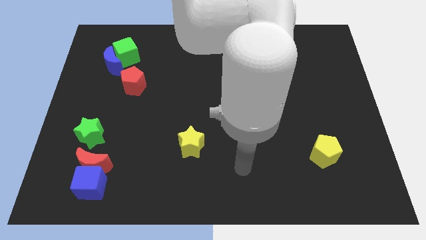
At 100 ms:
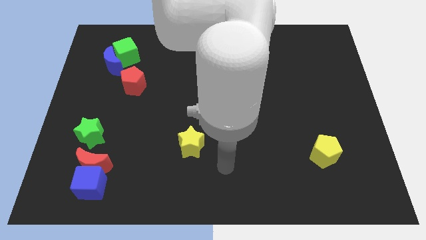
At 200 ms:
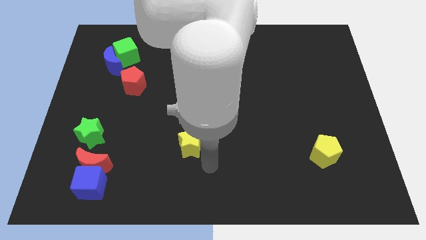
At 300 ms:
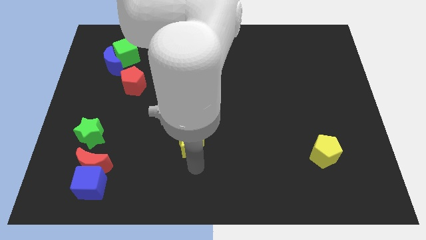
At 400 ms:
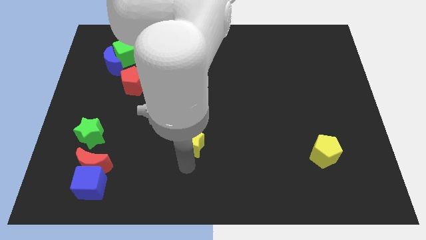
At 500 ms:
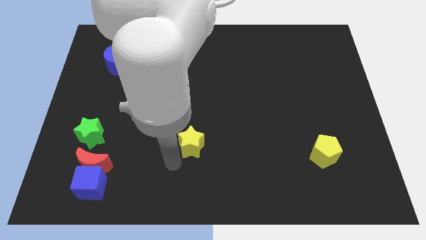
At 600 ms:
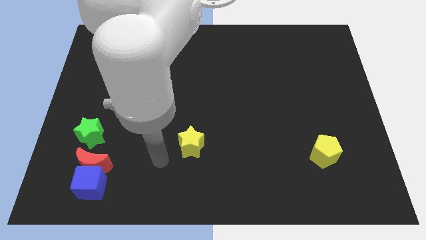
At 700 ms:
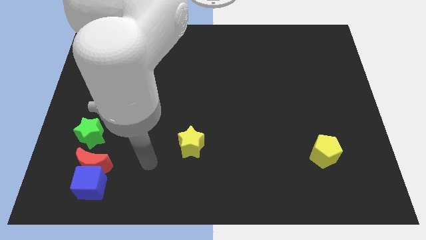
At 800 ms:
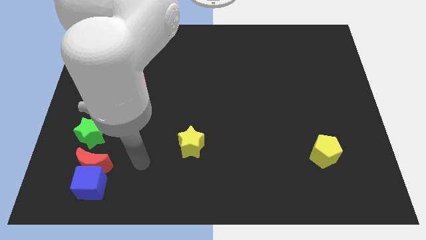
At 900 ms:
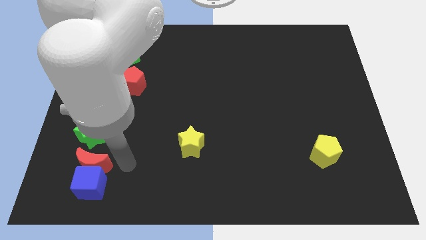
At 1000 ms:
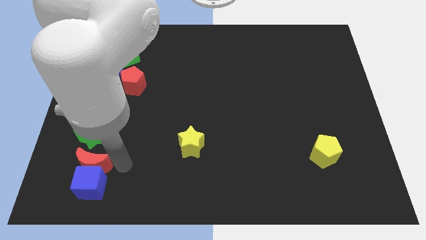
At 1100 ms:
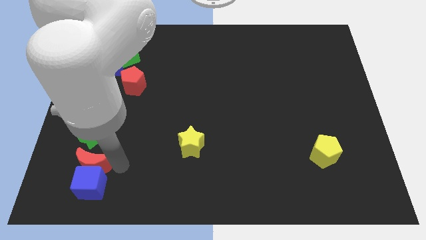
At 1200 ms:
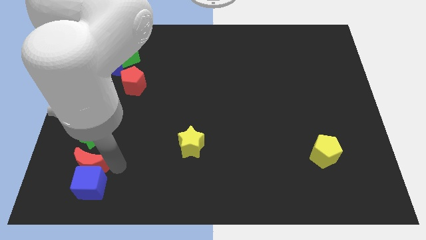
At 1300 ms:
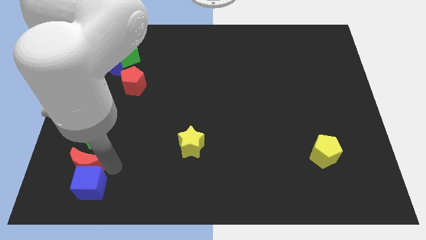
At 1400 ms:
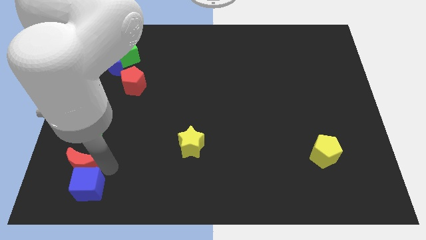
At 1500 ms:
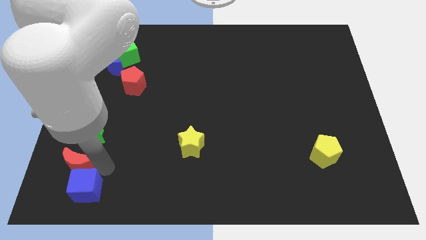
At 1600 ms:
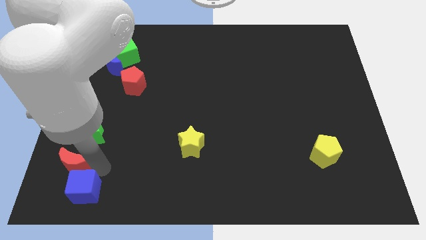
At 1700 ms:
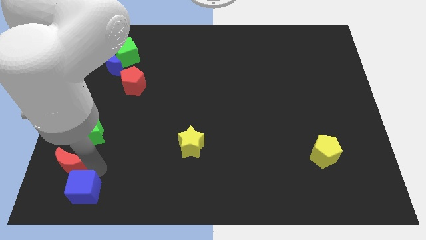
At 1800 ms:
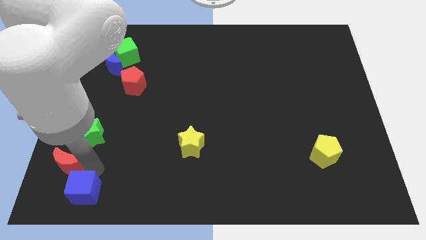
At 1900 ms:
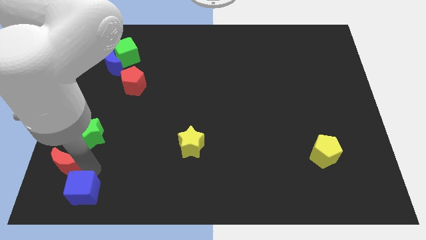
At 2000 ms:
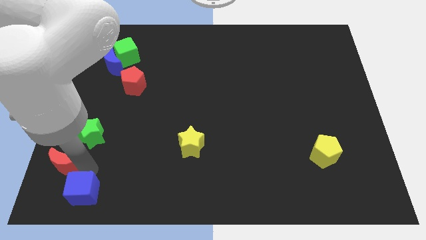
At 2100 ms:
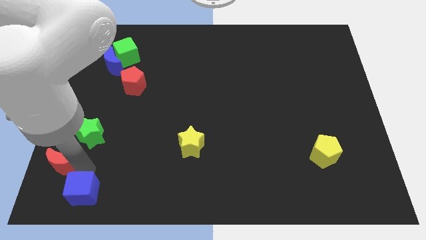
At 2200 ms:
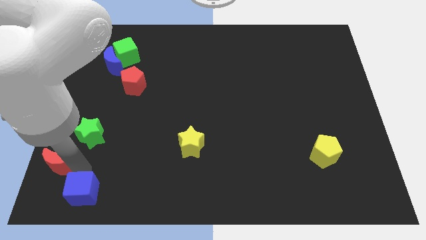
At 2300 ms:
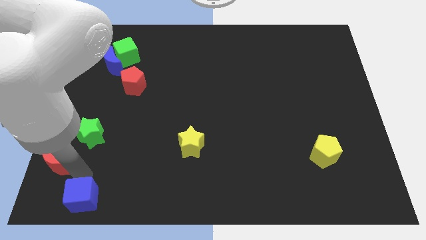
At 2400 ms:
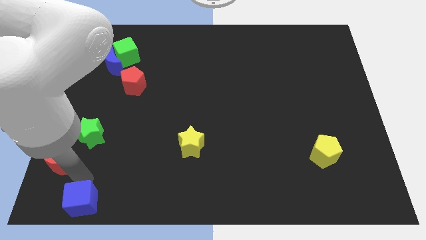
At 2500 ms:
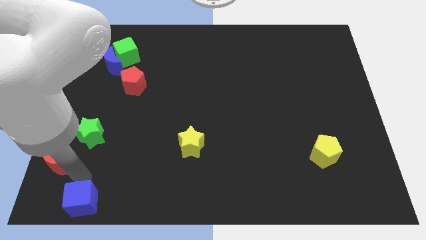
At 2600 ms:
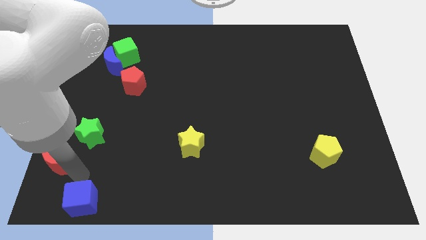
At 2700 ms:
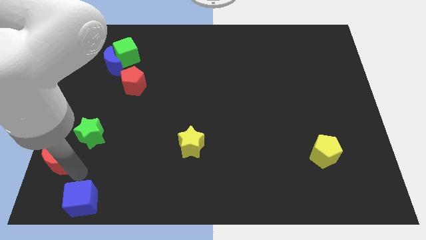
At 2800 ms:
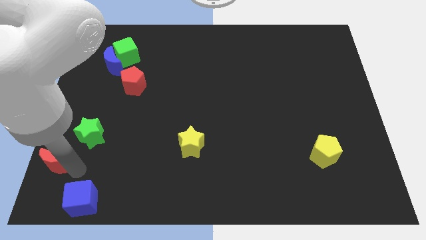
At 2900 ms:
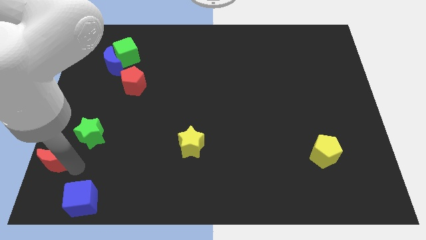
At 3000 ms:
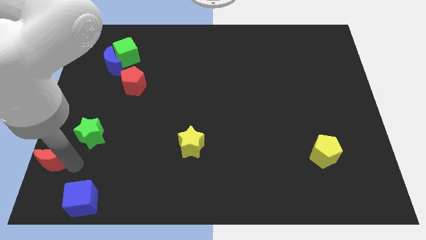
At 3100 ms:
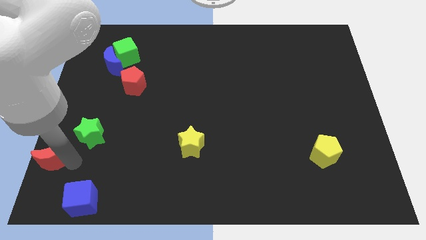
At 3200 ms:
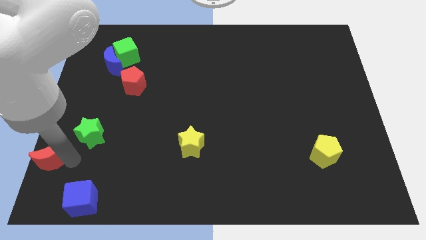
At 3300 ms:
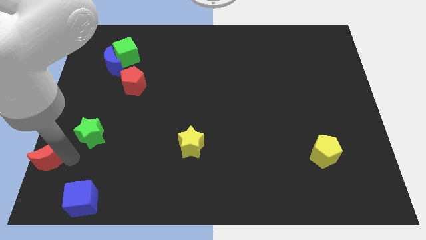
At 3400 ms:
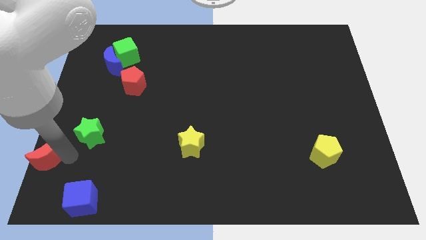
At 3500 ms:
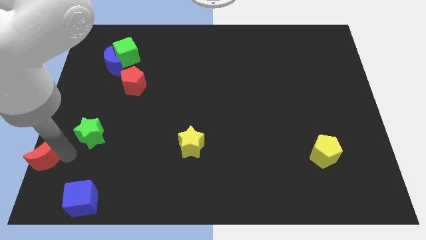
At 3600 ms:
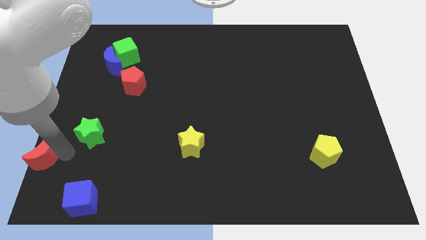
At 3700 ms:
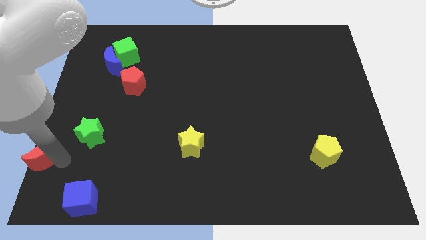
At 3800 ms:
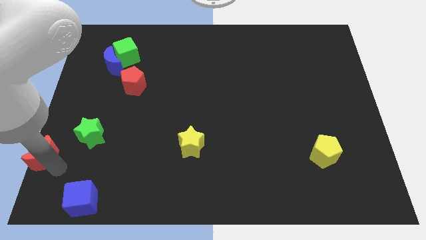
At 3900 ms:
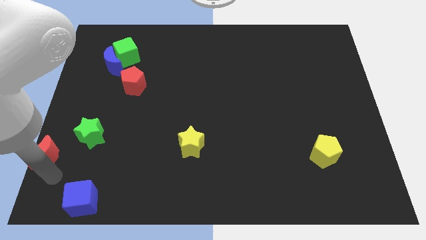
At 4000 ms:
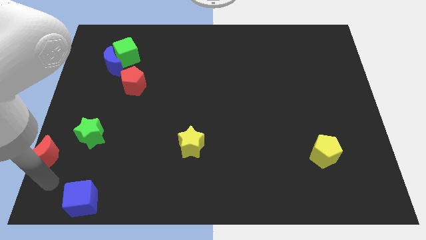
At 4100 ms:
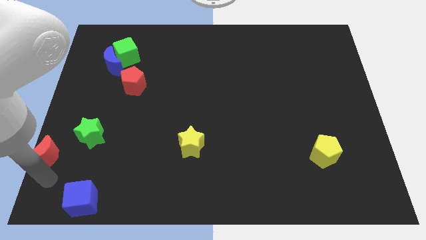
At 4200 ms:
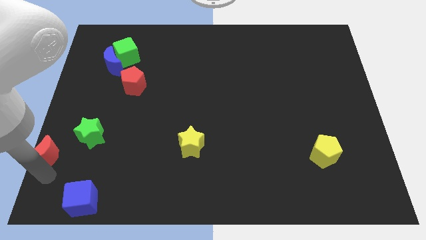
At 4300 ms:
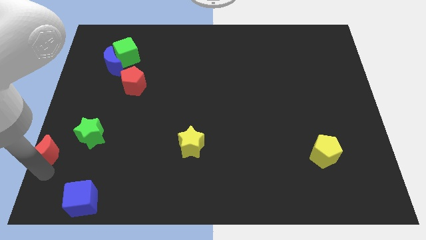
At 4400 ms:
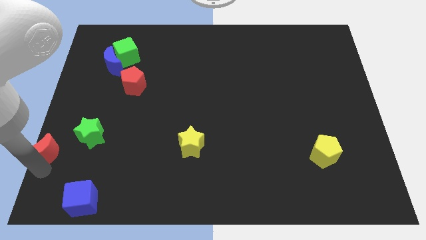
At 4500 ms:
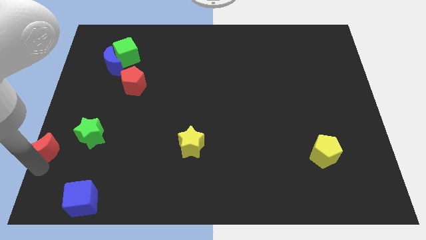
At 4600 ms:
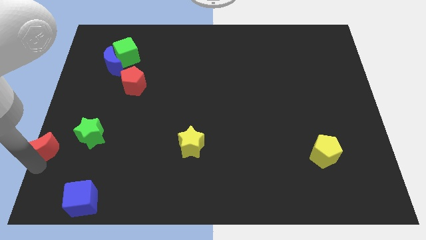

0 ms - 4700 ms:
push the red moon to the left side

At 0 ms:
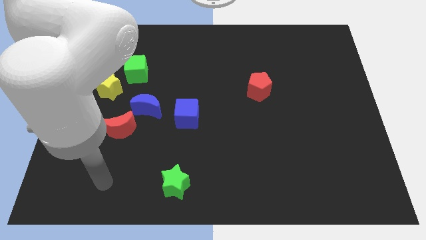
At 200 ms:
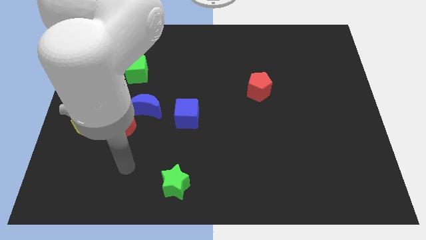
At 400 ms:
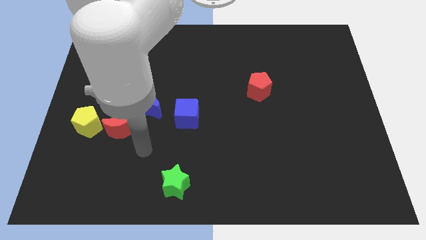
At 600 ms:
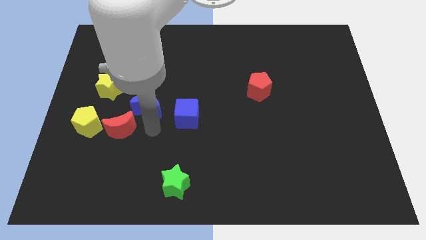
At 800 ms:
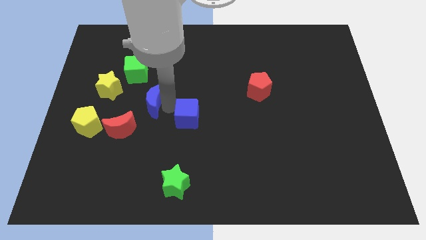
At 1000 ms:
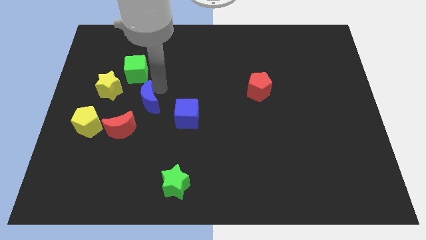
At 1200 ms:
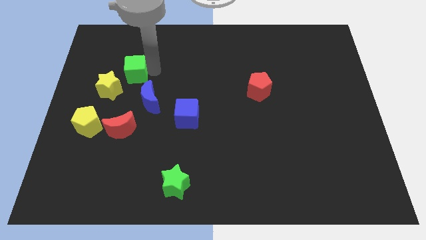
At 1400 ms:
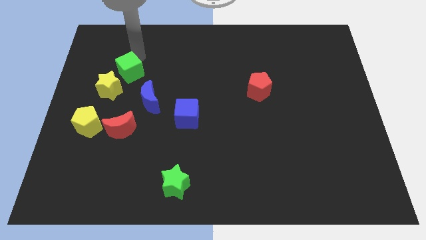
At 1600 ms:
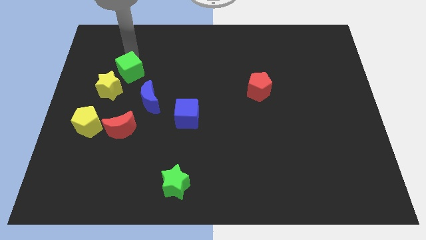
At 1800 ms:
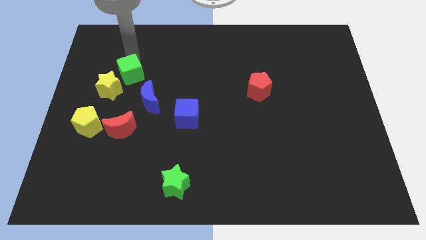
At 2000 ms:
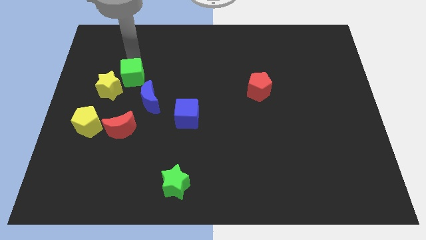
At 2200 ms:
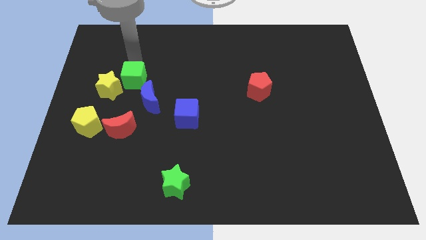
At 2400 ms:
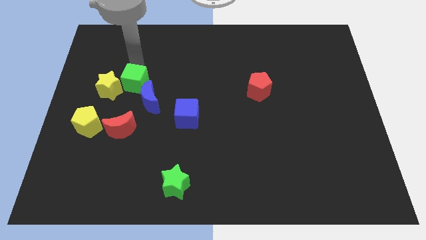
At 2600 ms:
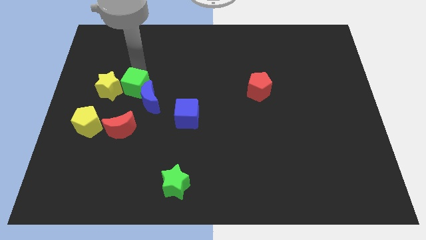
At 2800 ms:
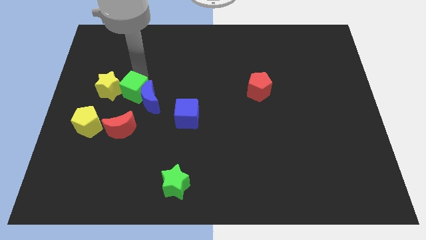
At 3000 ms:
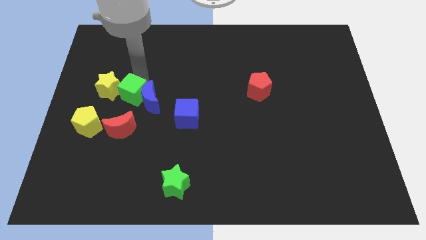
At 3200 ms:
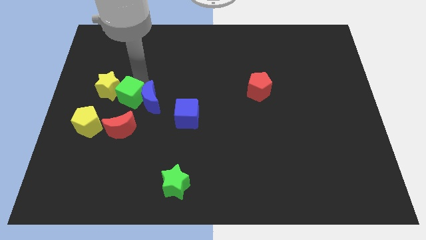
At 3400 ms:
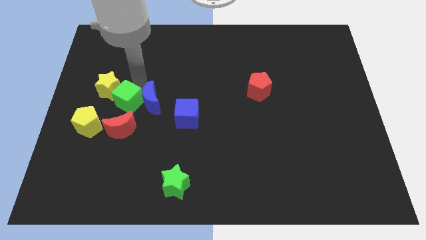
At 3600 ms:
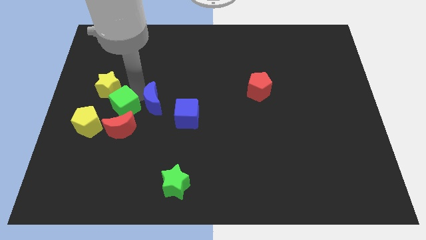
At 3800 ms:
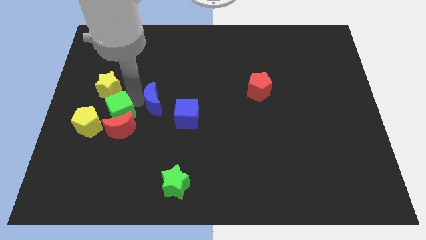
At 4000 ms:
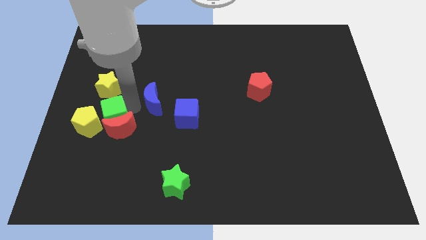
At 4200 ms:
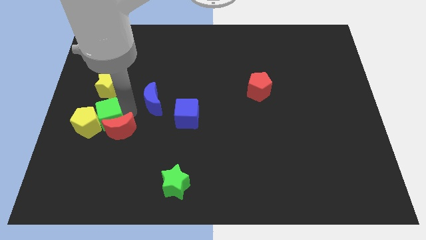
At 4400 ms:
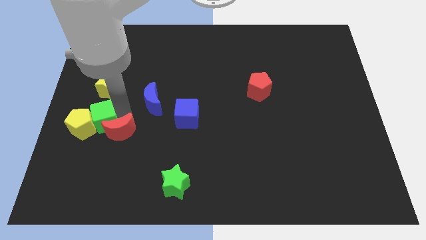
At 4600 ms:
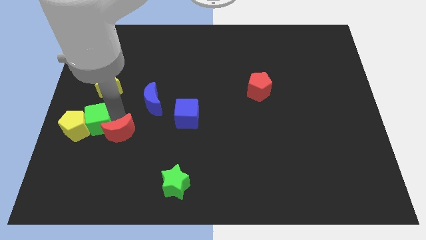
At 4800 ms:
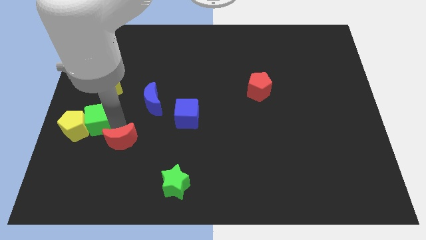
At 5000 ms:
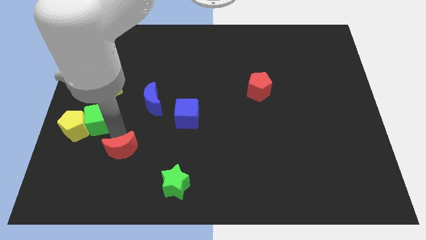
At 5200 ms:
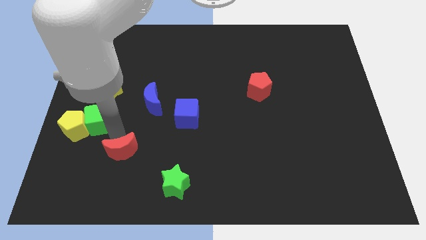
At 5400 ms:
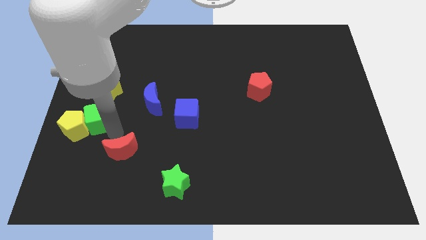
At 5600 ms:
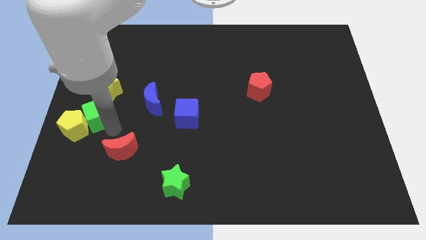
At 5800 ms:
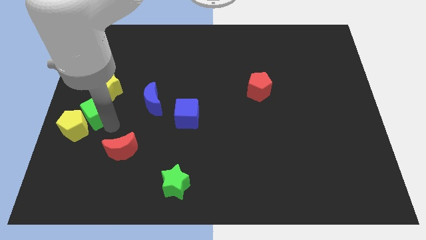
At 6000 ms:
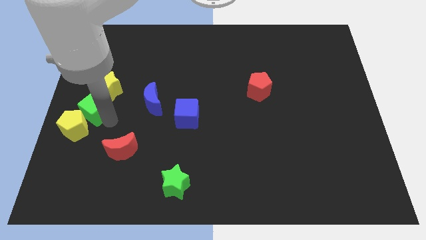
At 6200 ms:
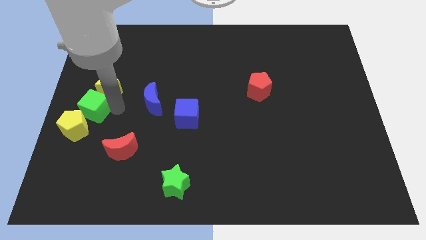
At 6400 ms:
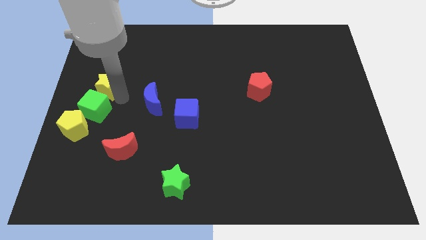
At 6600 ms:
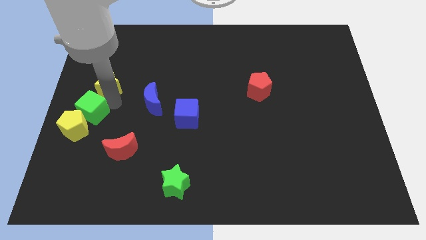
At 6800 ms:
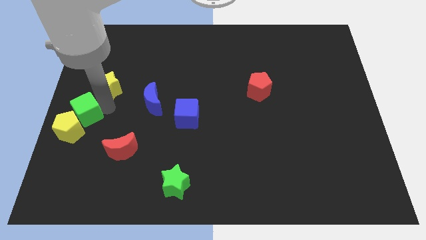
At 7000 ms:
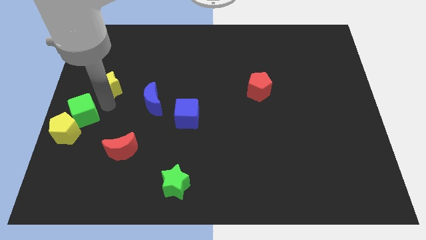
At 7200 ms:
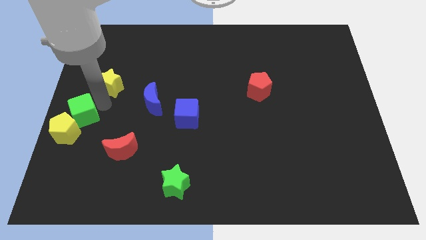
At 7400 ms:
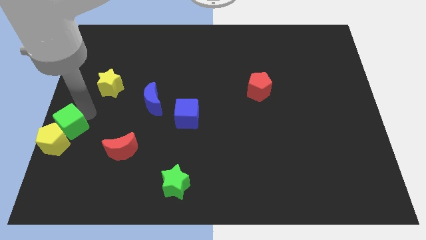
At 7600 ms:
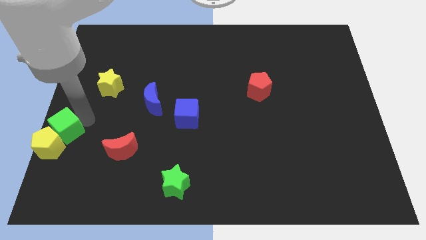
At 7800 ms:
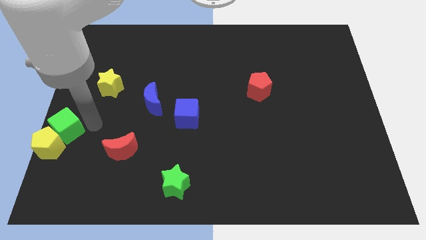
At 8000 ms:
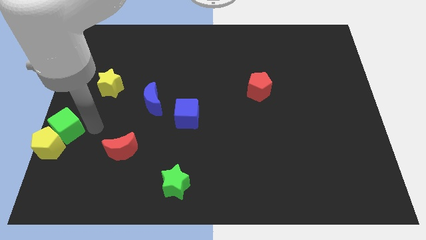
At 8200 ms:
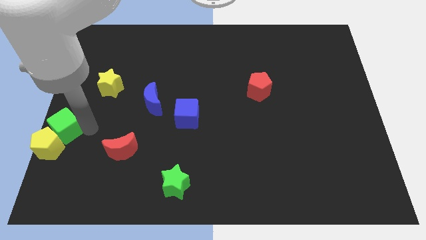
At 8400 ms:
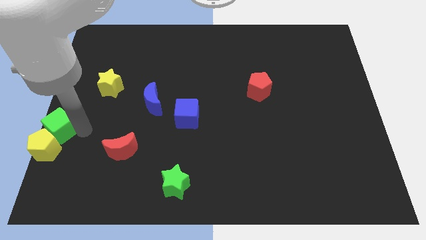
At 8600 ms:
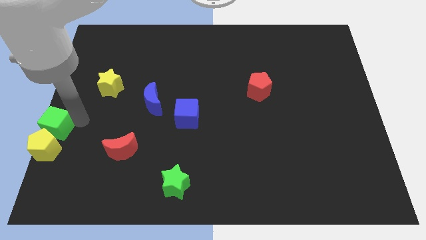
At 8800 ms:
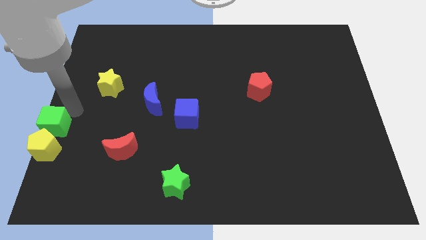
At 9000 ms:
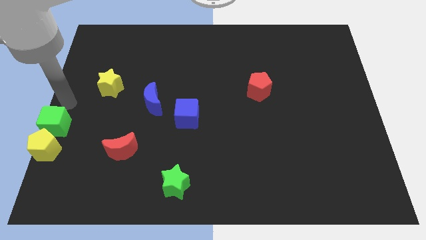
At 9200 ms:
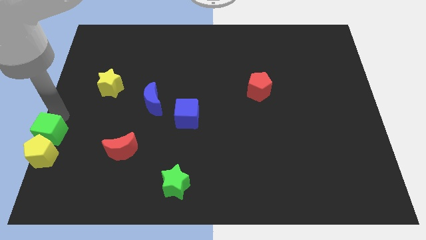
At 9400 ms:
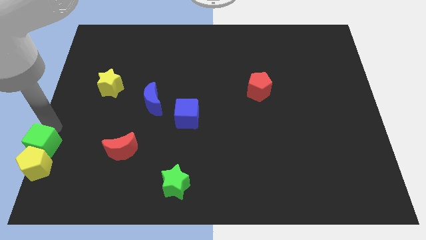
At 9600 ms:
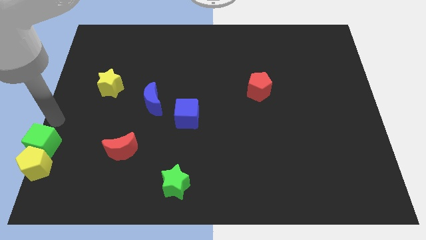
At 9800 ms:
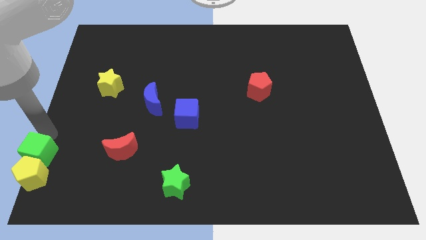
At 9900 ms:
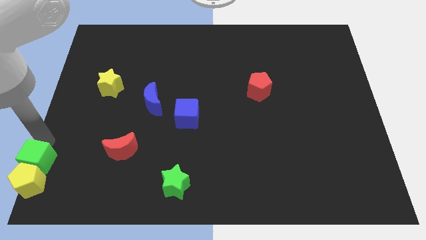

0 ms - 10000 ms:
push the green cube to the bottom left corner
